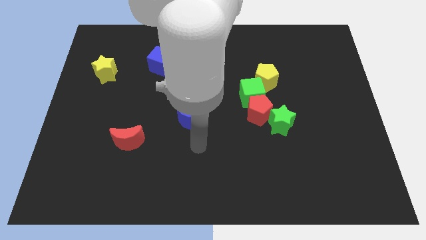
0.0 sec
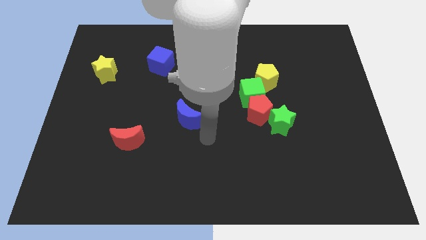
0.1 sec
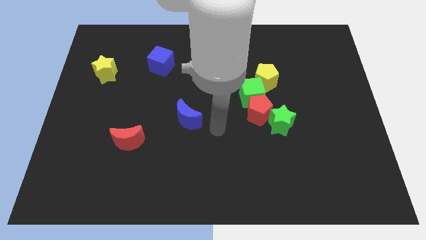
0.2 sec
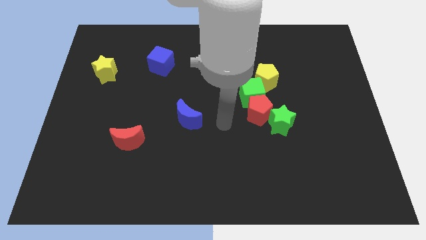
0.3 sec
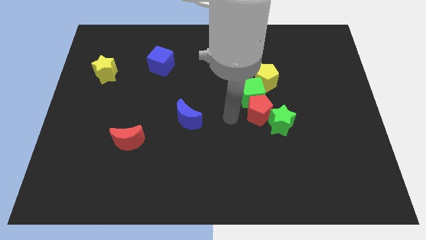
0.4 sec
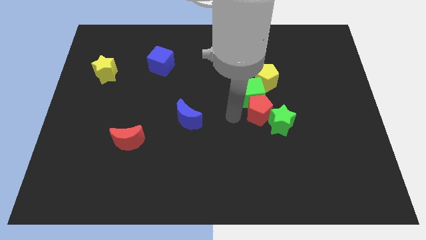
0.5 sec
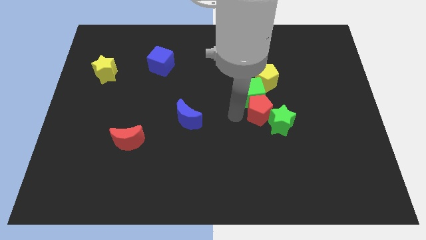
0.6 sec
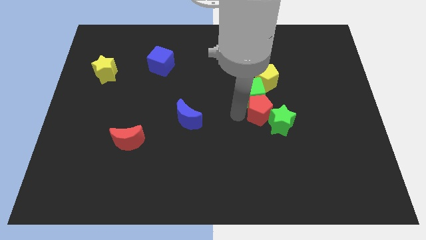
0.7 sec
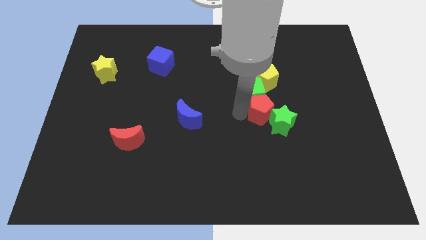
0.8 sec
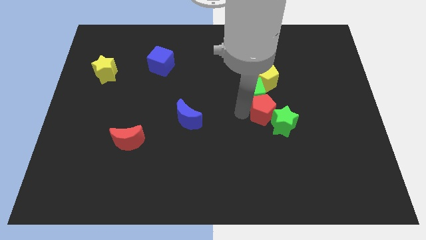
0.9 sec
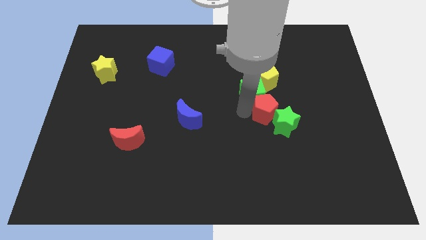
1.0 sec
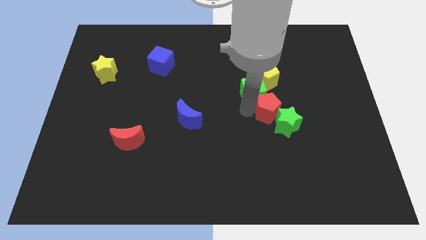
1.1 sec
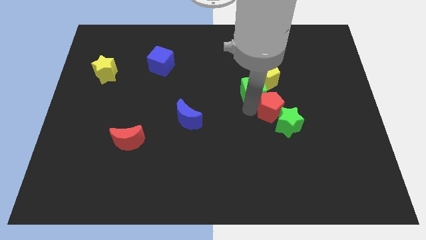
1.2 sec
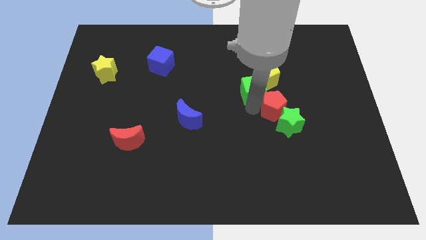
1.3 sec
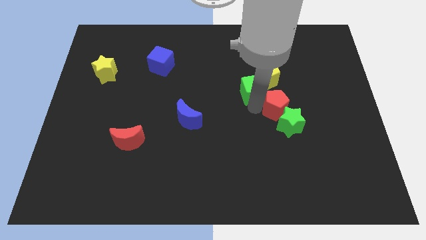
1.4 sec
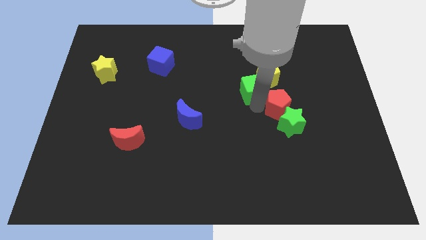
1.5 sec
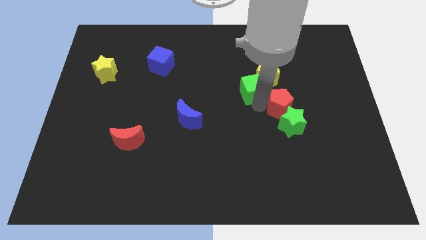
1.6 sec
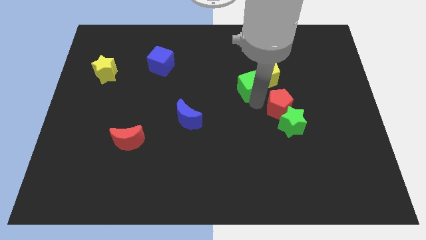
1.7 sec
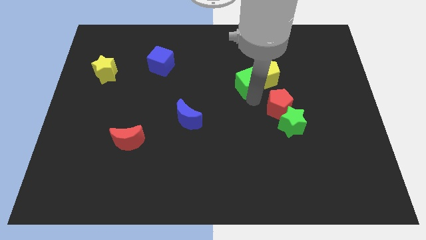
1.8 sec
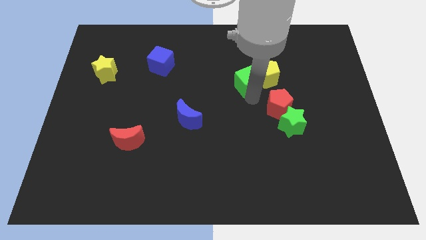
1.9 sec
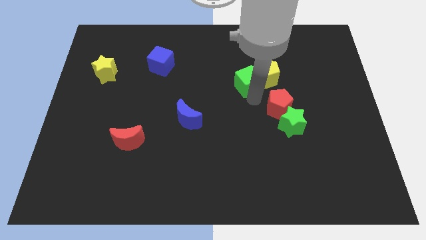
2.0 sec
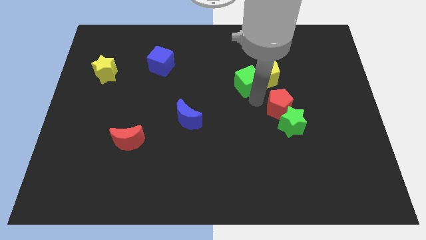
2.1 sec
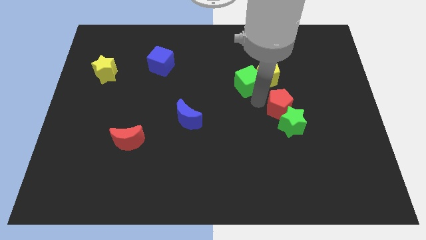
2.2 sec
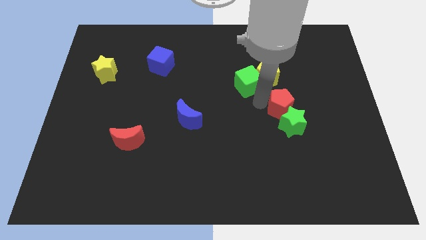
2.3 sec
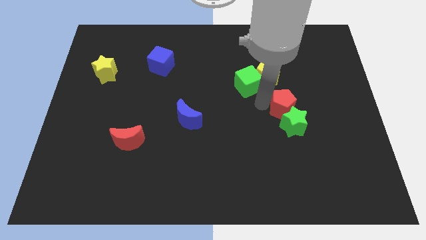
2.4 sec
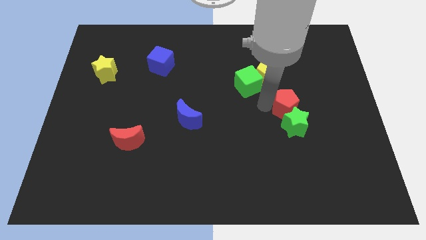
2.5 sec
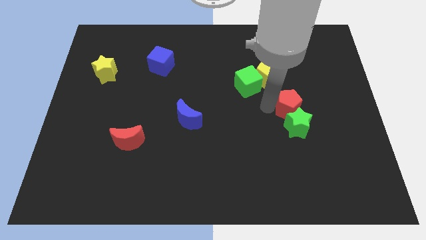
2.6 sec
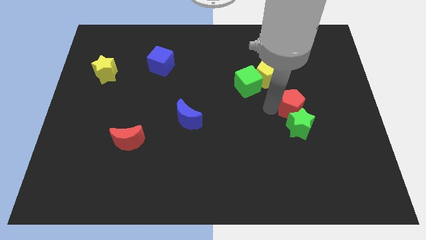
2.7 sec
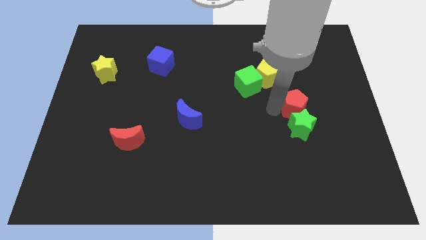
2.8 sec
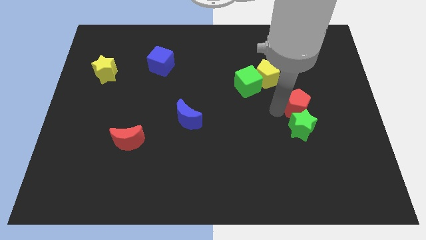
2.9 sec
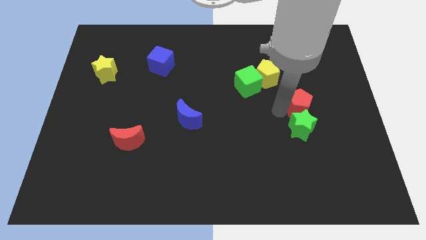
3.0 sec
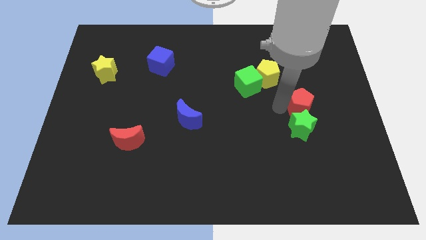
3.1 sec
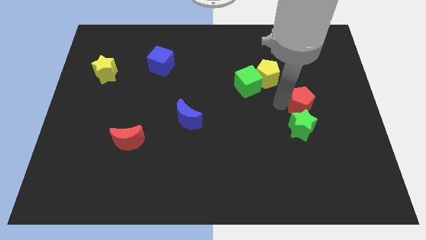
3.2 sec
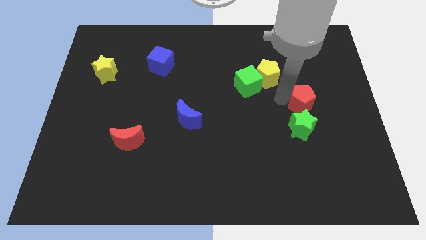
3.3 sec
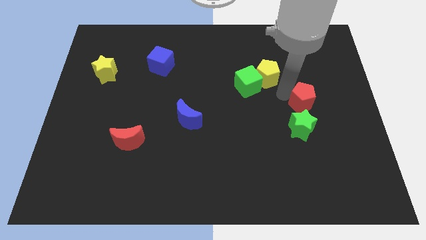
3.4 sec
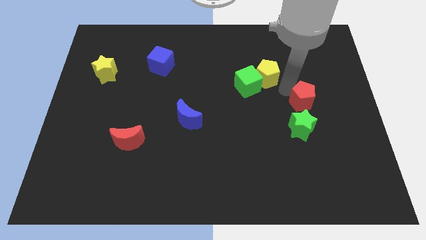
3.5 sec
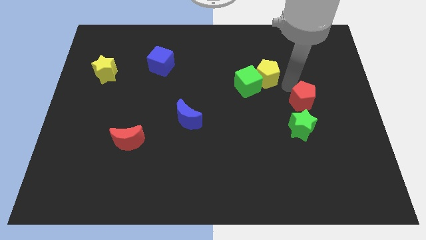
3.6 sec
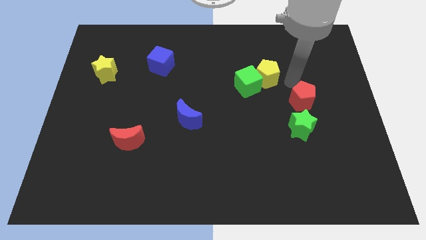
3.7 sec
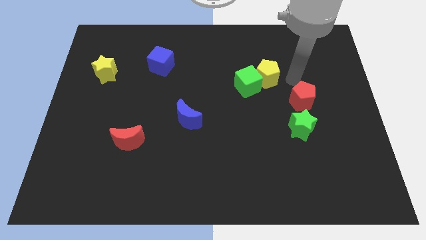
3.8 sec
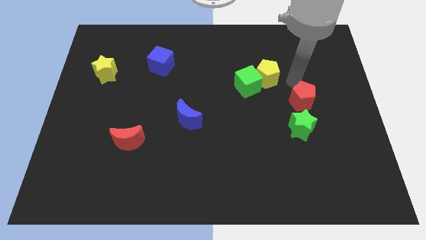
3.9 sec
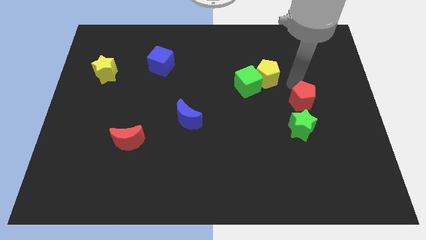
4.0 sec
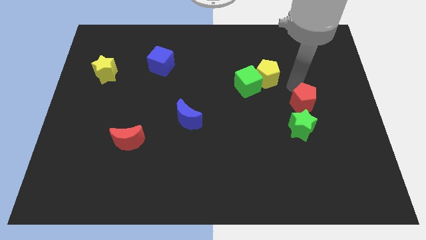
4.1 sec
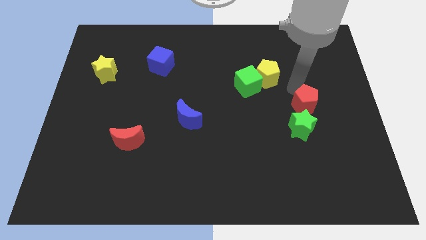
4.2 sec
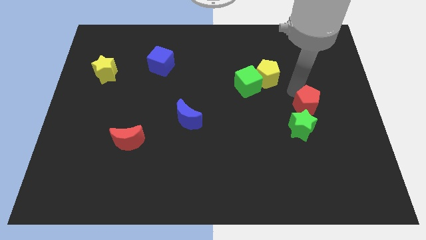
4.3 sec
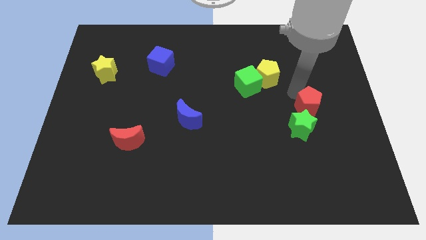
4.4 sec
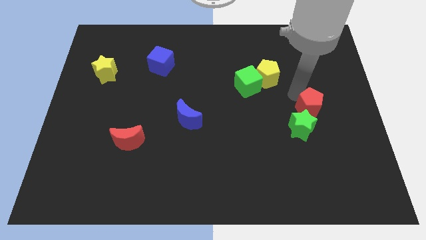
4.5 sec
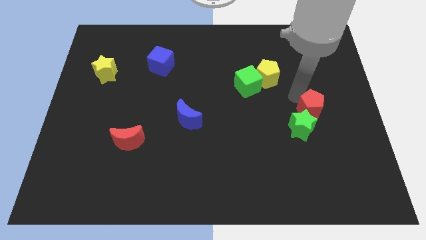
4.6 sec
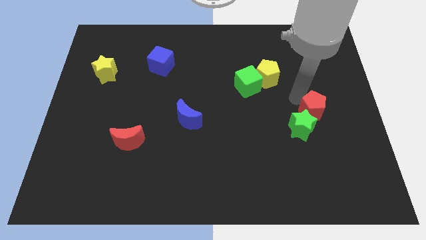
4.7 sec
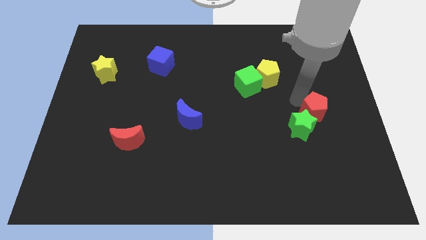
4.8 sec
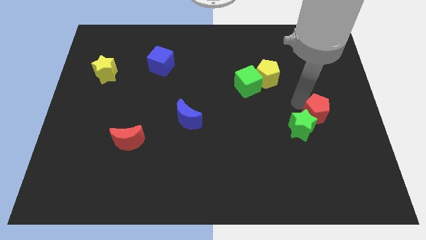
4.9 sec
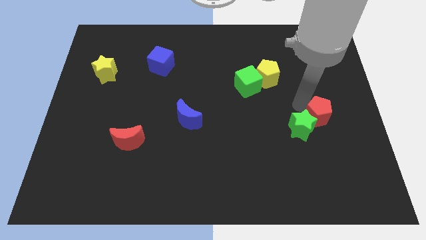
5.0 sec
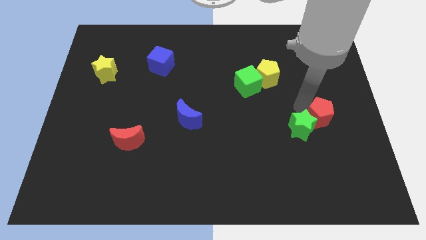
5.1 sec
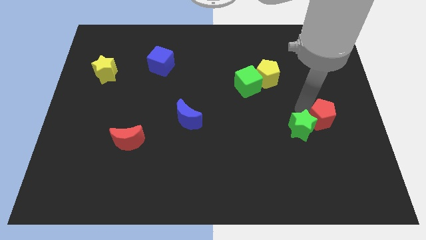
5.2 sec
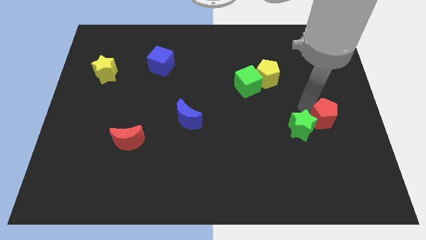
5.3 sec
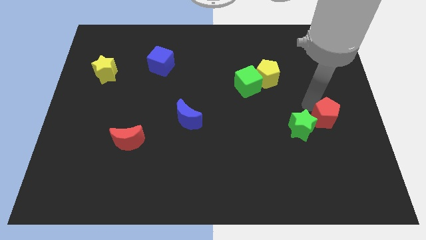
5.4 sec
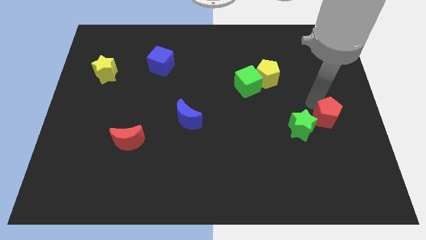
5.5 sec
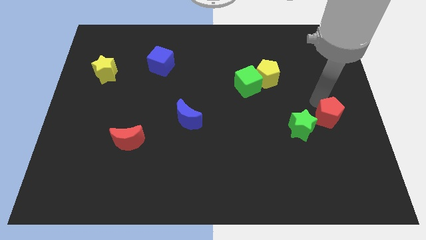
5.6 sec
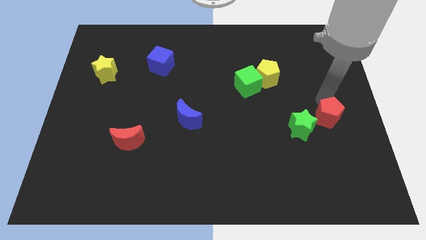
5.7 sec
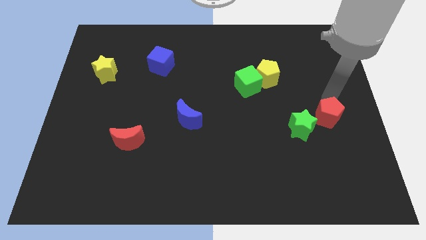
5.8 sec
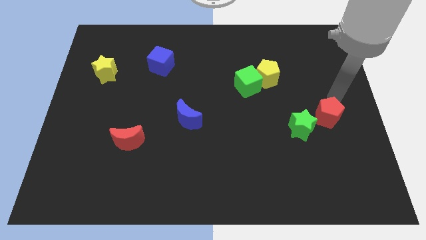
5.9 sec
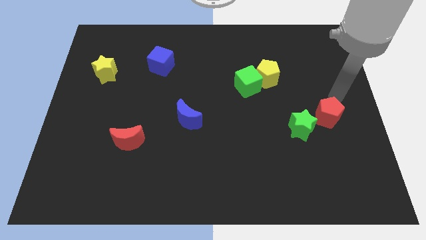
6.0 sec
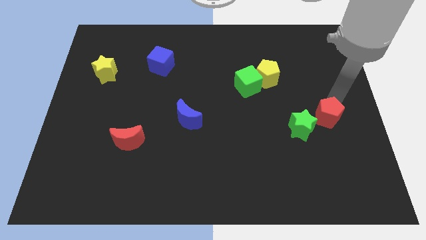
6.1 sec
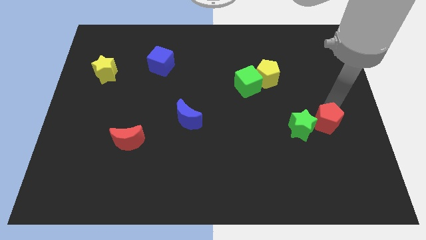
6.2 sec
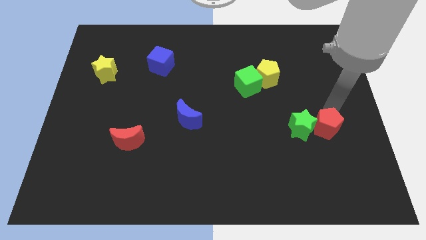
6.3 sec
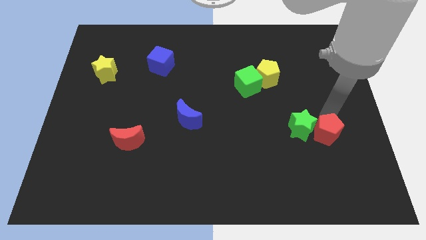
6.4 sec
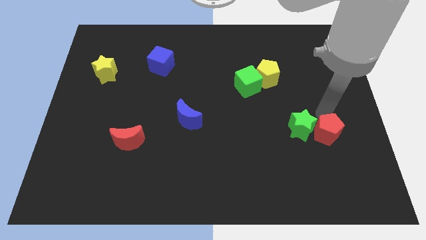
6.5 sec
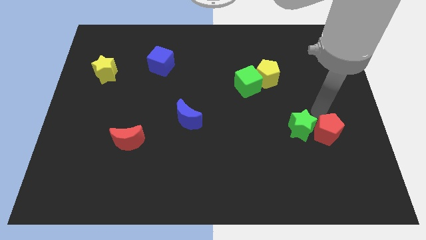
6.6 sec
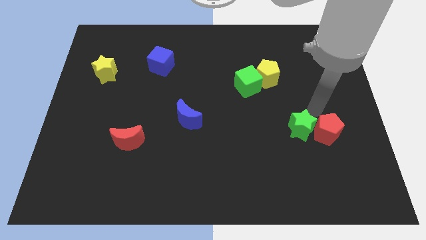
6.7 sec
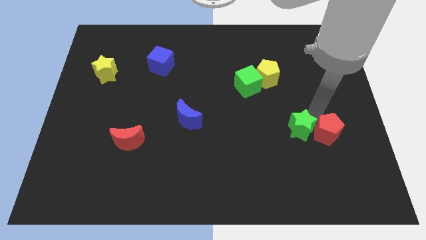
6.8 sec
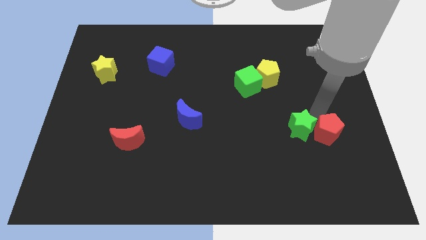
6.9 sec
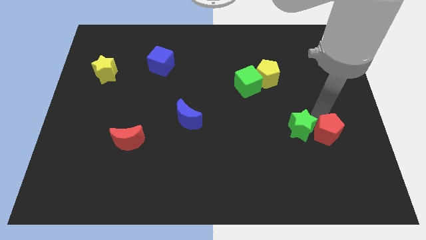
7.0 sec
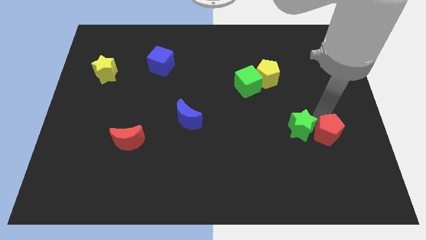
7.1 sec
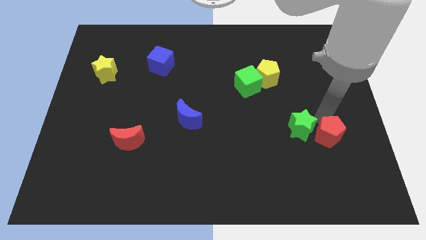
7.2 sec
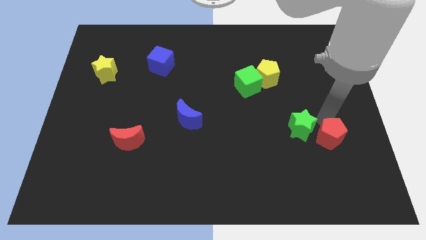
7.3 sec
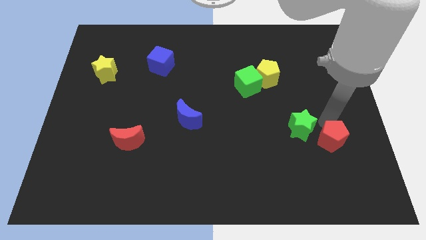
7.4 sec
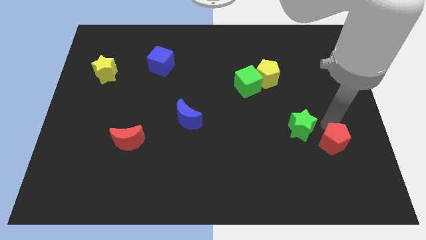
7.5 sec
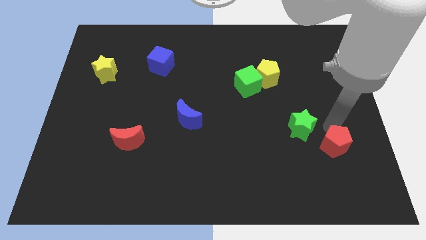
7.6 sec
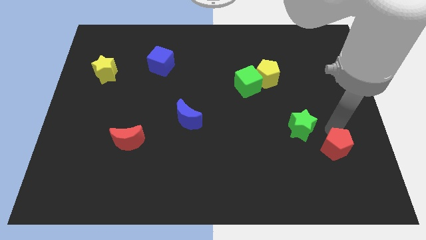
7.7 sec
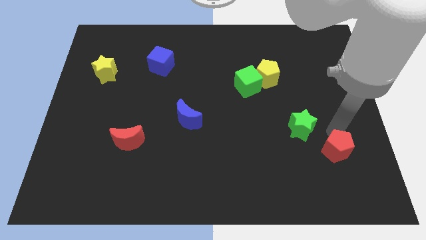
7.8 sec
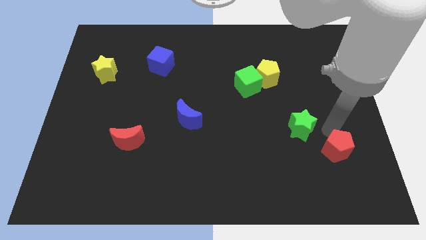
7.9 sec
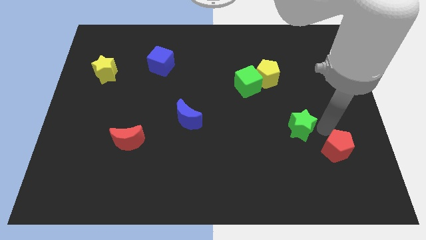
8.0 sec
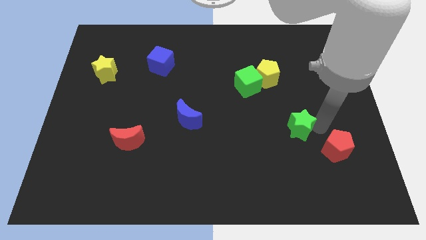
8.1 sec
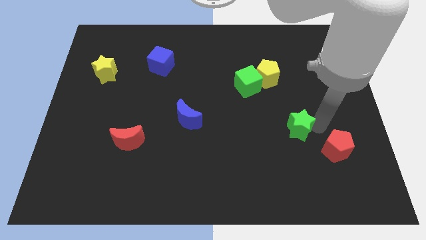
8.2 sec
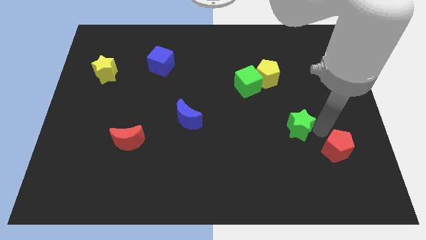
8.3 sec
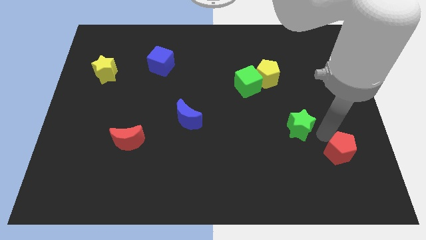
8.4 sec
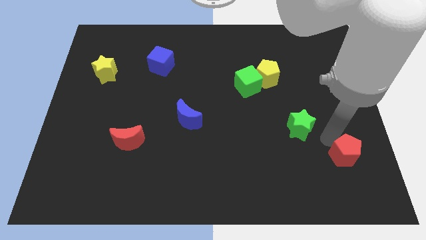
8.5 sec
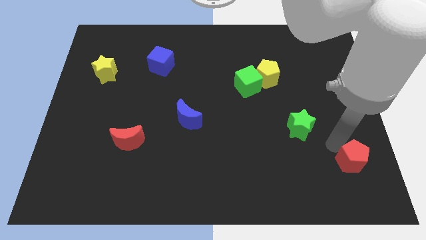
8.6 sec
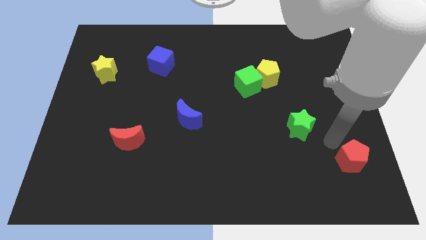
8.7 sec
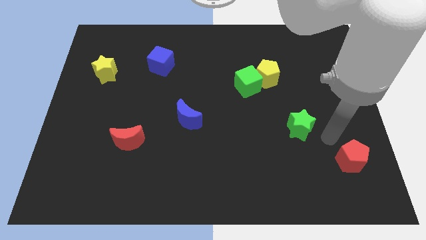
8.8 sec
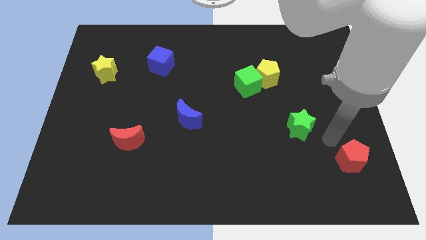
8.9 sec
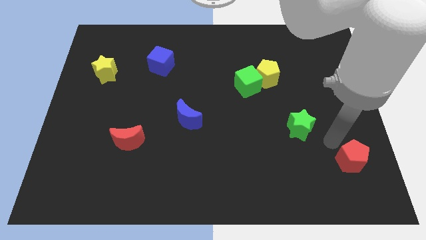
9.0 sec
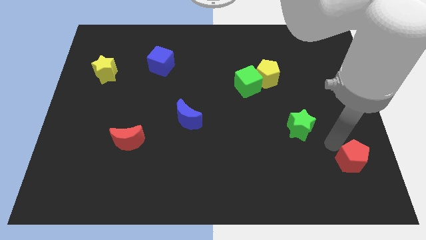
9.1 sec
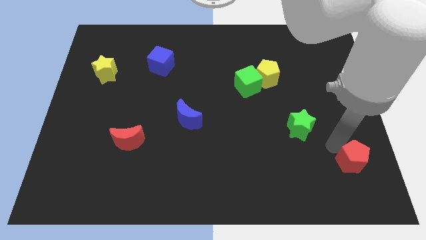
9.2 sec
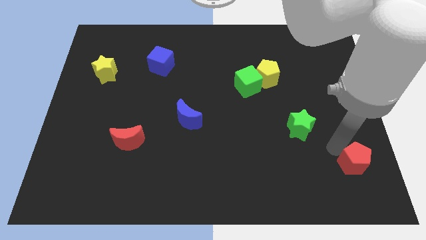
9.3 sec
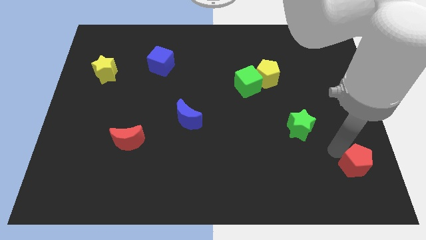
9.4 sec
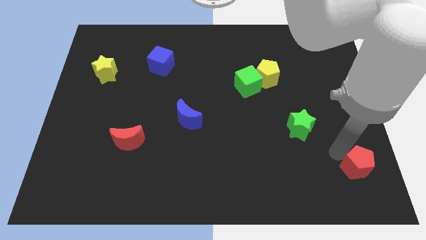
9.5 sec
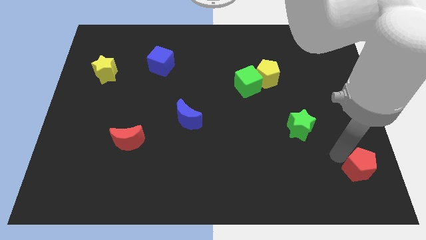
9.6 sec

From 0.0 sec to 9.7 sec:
slide the red pentagon to the bottom right
